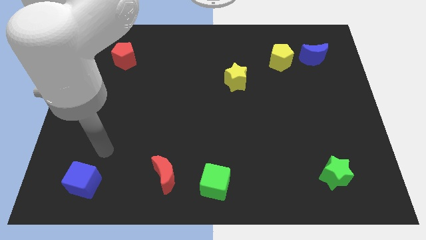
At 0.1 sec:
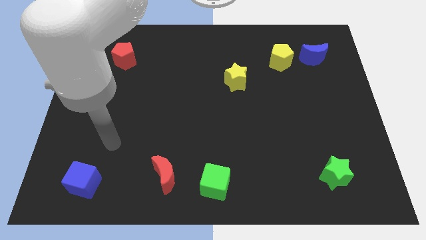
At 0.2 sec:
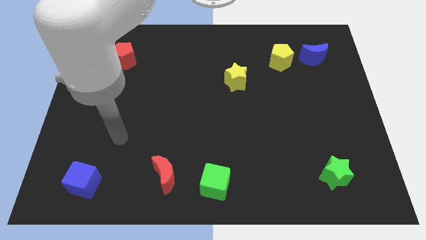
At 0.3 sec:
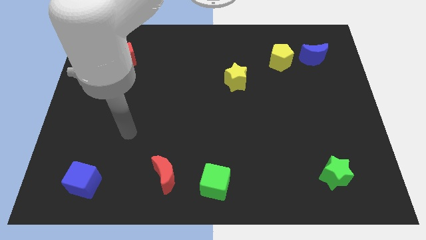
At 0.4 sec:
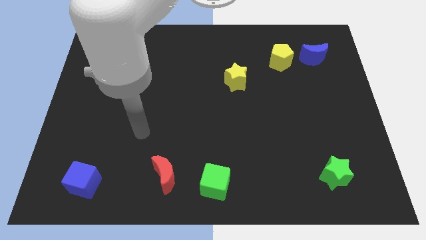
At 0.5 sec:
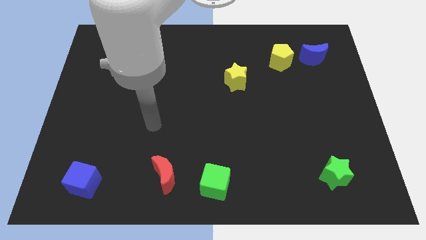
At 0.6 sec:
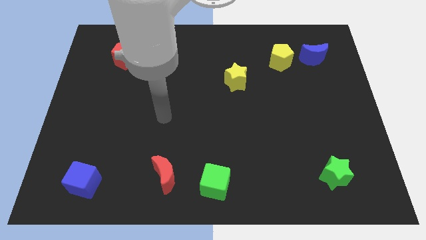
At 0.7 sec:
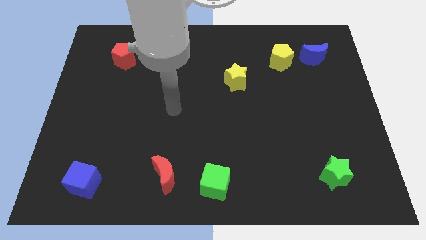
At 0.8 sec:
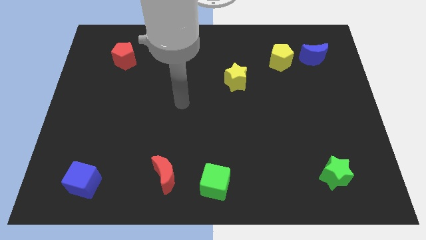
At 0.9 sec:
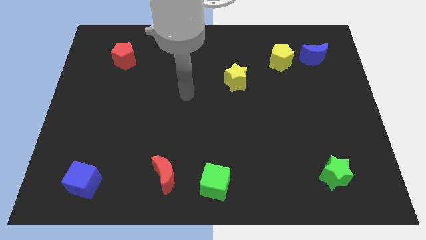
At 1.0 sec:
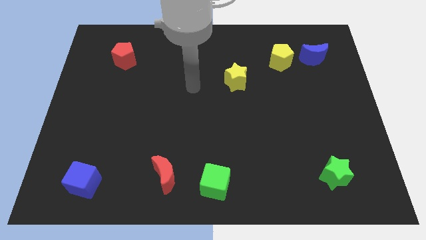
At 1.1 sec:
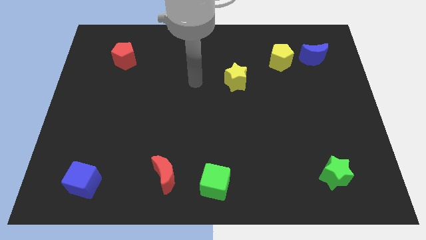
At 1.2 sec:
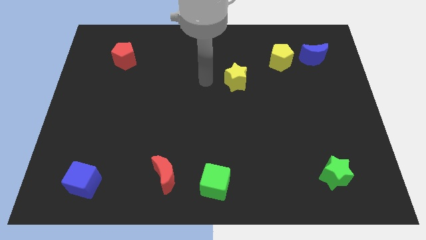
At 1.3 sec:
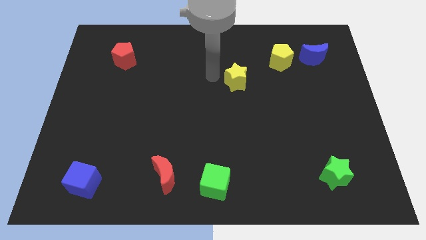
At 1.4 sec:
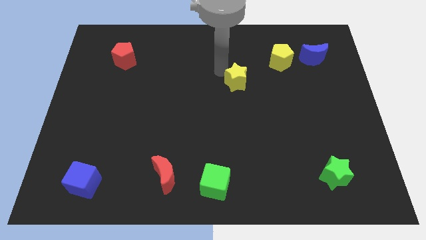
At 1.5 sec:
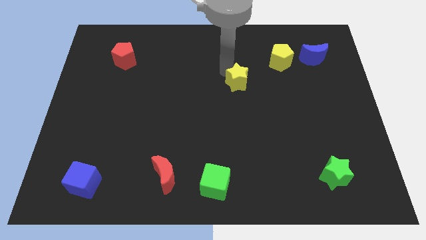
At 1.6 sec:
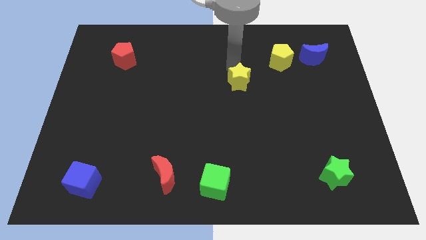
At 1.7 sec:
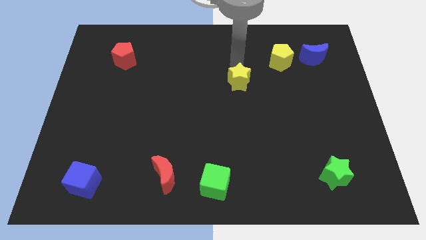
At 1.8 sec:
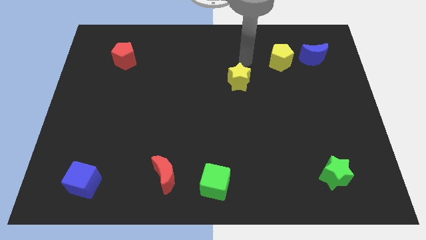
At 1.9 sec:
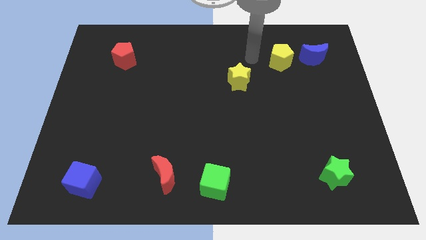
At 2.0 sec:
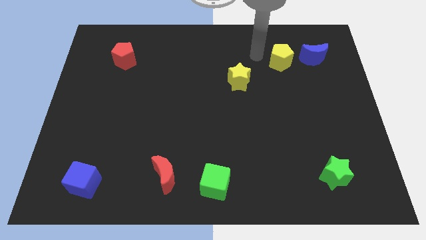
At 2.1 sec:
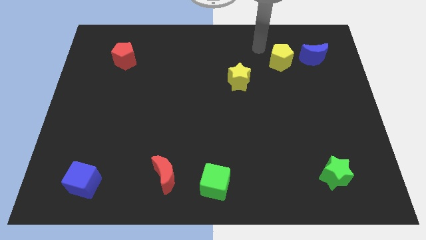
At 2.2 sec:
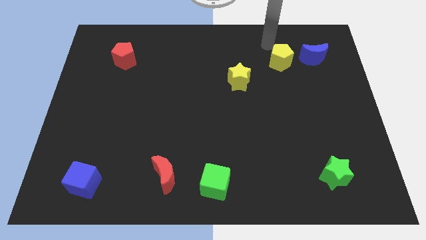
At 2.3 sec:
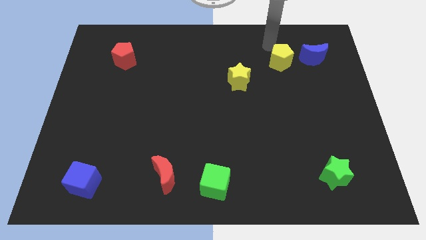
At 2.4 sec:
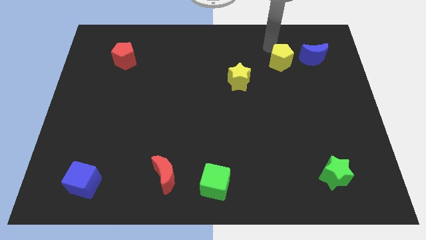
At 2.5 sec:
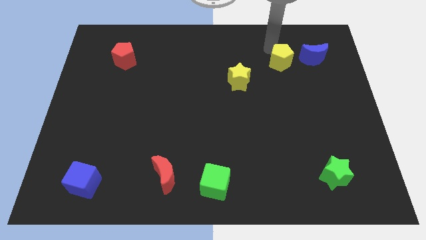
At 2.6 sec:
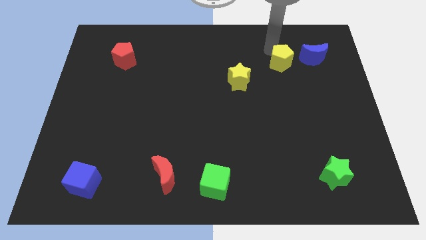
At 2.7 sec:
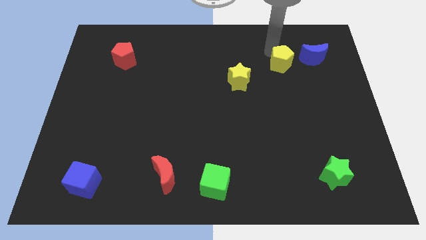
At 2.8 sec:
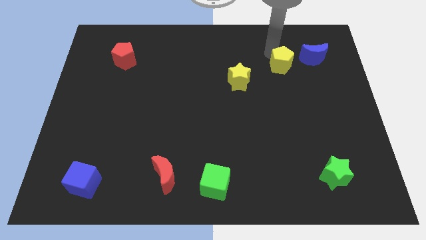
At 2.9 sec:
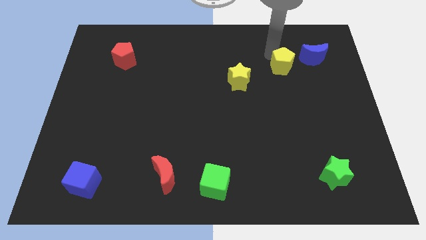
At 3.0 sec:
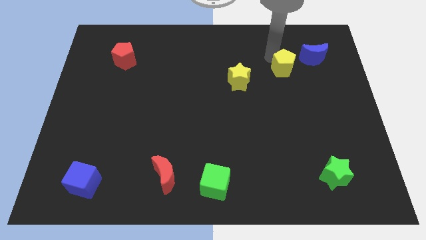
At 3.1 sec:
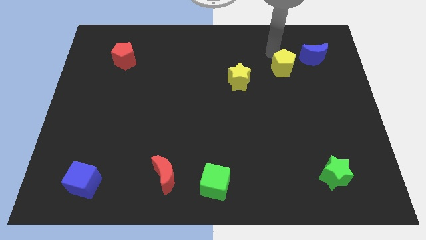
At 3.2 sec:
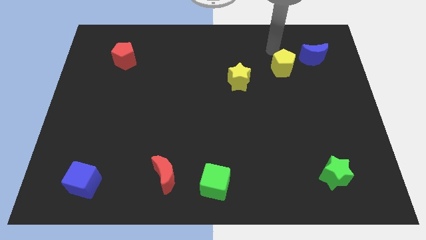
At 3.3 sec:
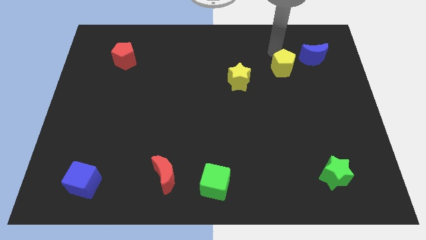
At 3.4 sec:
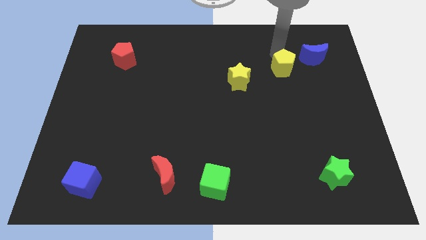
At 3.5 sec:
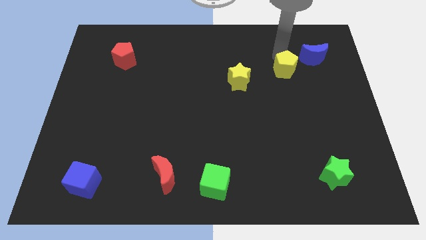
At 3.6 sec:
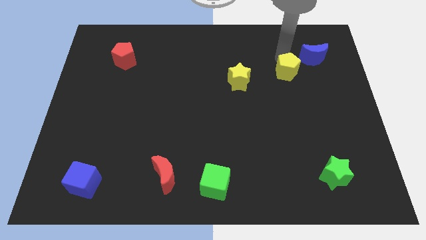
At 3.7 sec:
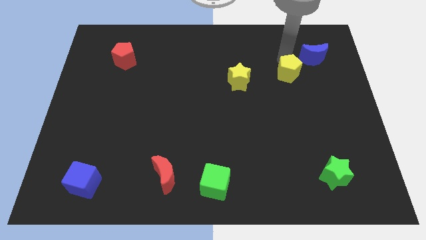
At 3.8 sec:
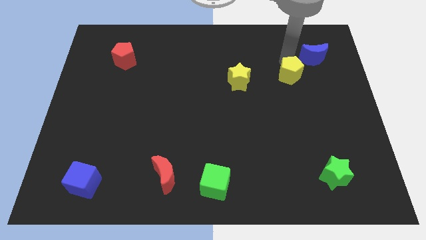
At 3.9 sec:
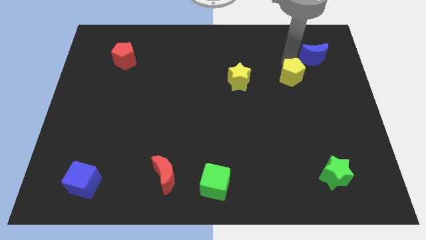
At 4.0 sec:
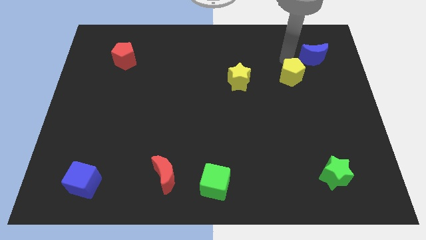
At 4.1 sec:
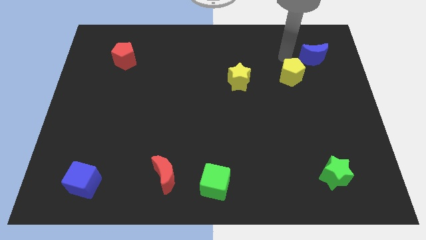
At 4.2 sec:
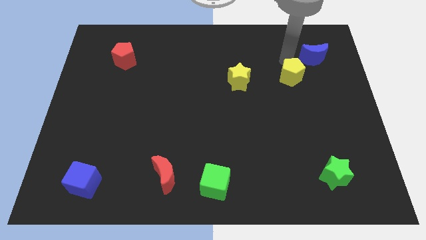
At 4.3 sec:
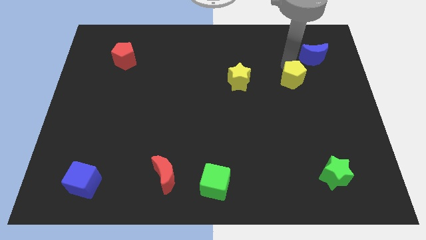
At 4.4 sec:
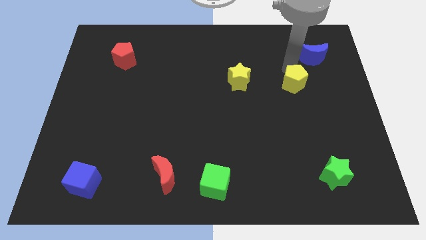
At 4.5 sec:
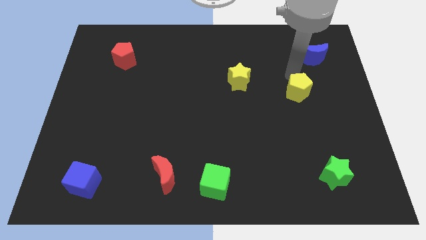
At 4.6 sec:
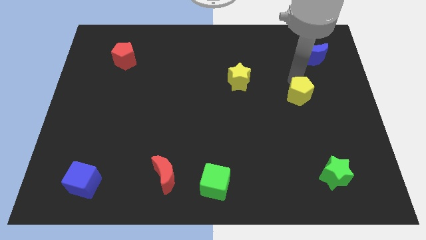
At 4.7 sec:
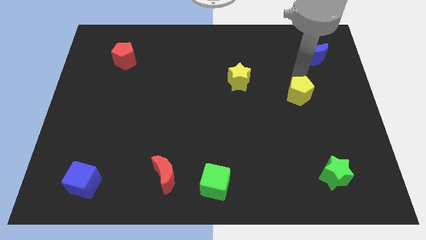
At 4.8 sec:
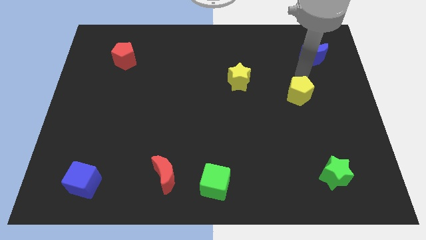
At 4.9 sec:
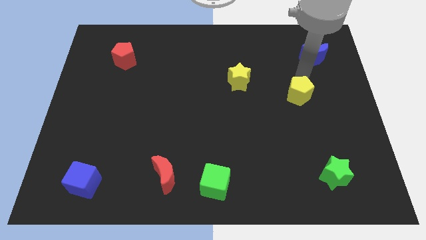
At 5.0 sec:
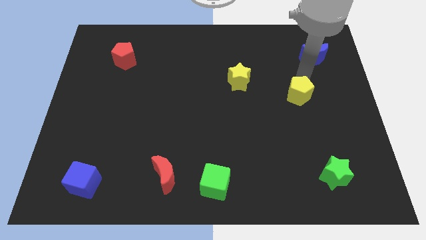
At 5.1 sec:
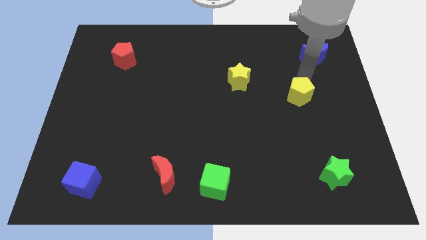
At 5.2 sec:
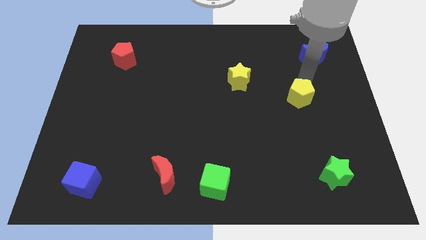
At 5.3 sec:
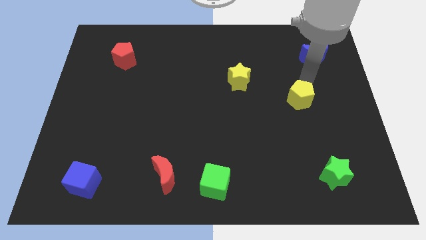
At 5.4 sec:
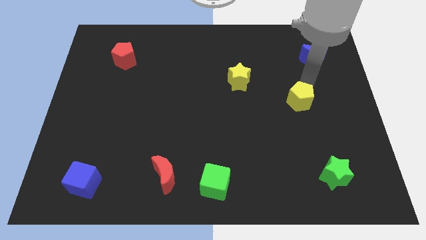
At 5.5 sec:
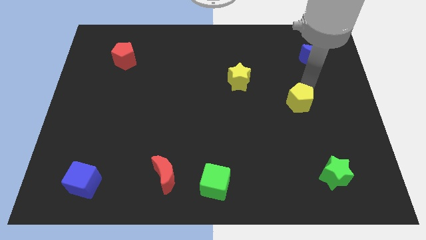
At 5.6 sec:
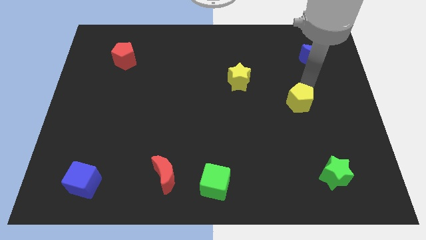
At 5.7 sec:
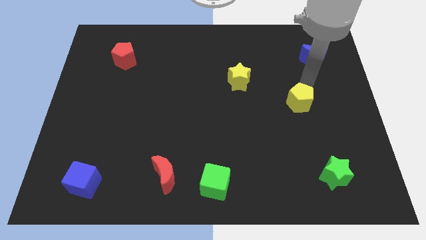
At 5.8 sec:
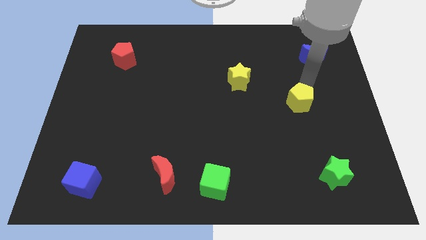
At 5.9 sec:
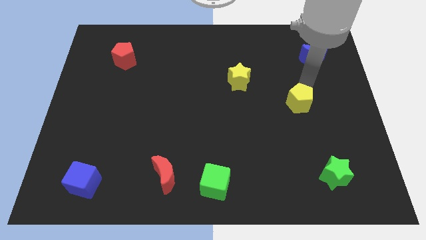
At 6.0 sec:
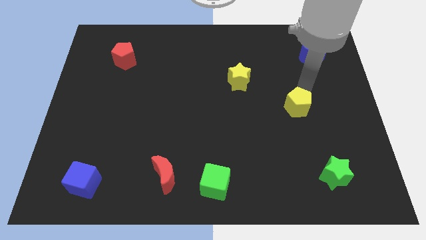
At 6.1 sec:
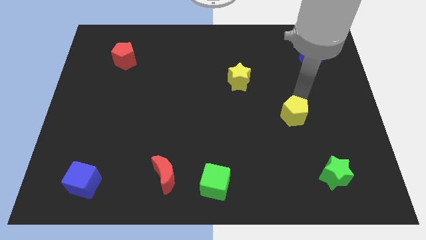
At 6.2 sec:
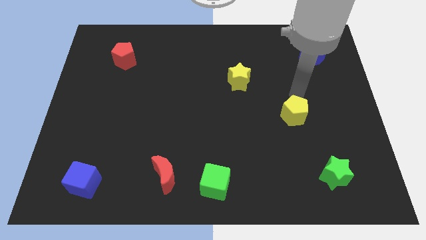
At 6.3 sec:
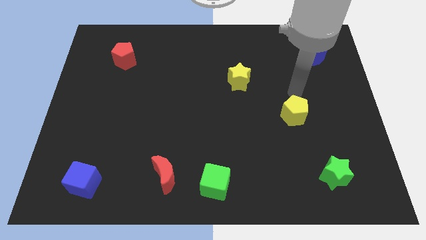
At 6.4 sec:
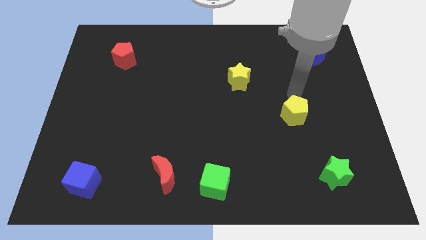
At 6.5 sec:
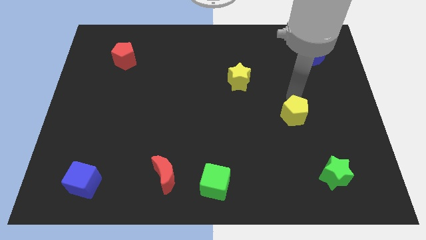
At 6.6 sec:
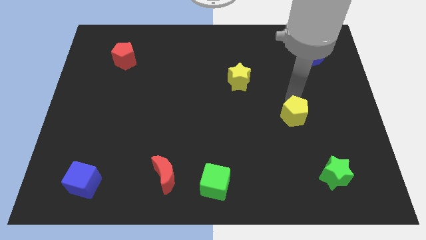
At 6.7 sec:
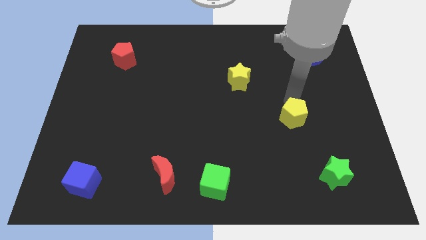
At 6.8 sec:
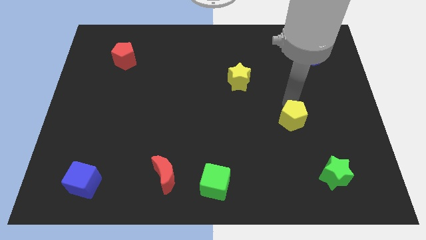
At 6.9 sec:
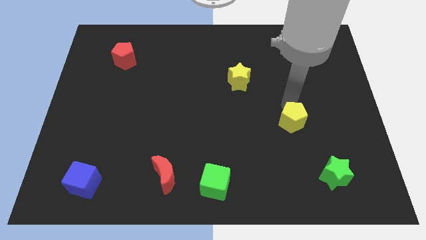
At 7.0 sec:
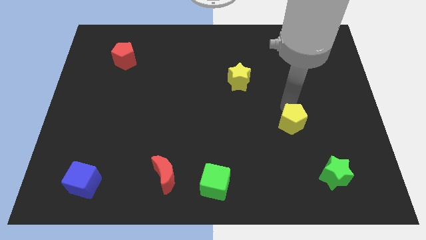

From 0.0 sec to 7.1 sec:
slide the yellow pentagon downwards

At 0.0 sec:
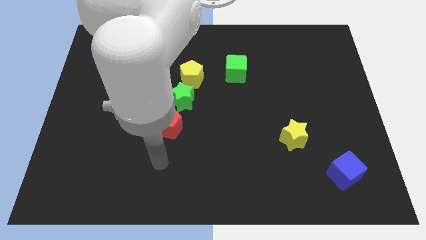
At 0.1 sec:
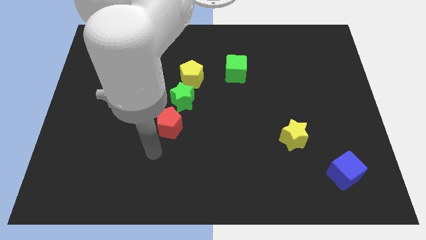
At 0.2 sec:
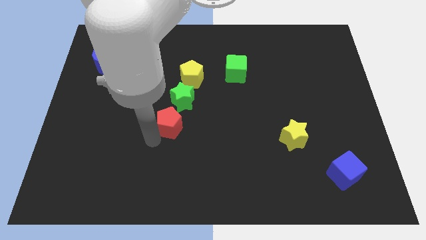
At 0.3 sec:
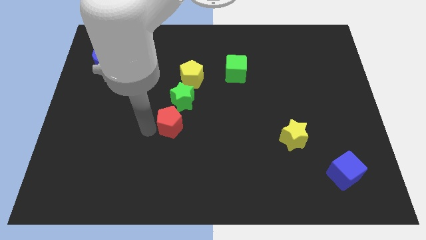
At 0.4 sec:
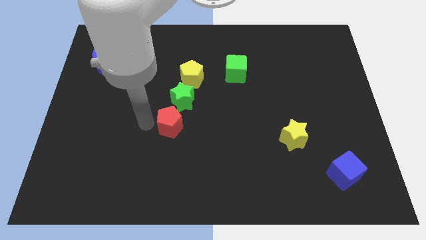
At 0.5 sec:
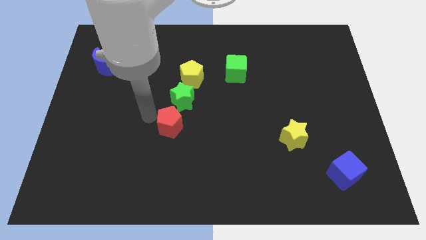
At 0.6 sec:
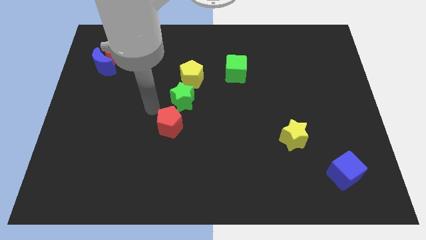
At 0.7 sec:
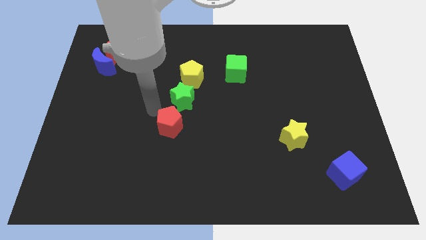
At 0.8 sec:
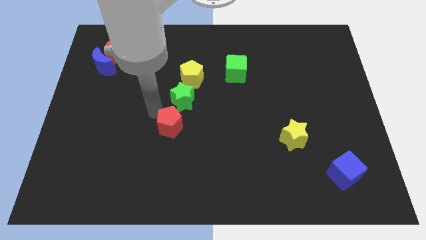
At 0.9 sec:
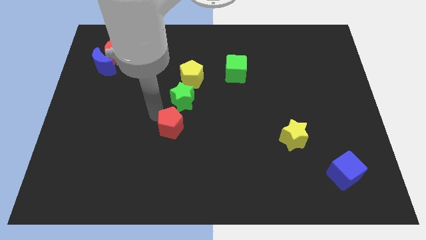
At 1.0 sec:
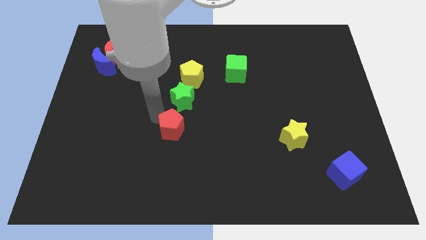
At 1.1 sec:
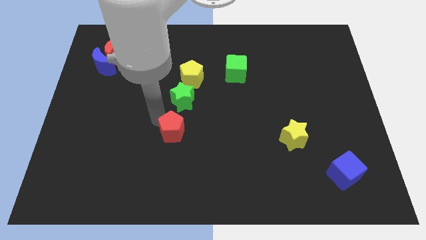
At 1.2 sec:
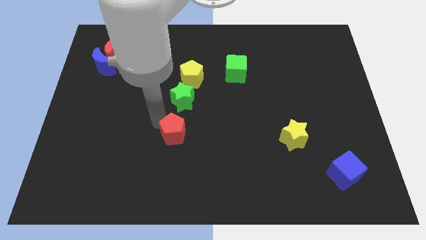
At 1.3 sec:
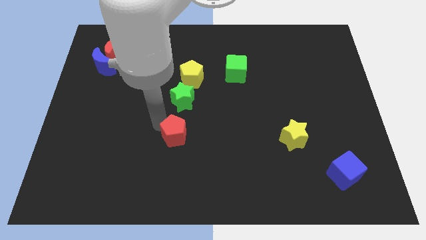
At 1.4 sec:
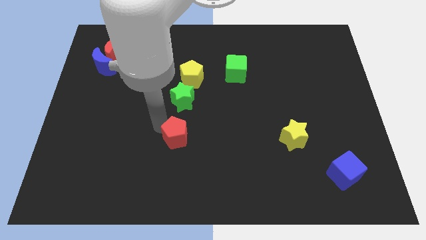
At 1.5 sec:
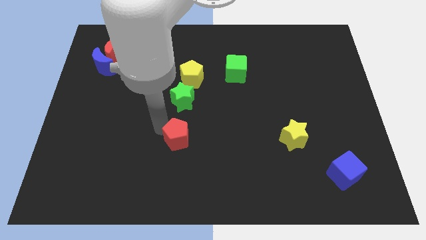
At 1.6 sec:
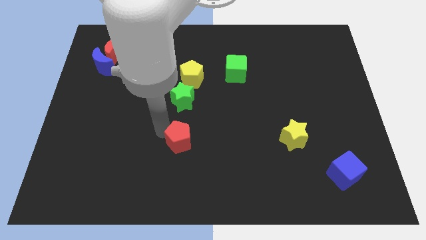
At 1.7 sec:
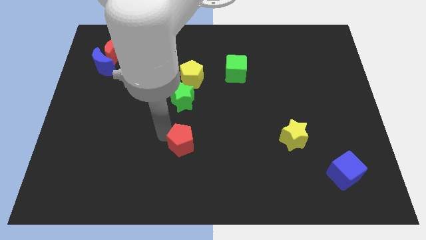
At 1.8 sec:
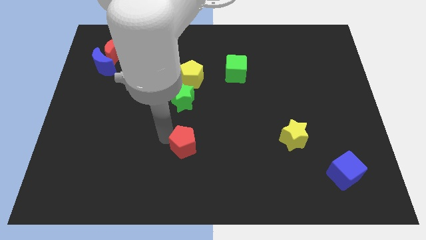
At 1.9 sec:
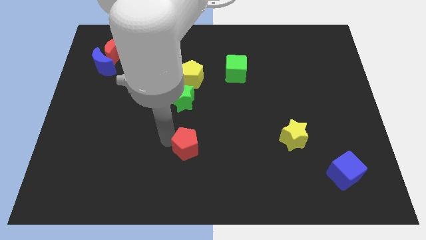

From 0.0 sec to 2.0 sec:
slightly slide the red pentagon down and right
